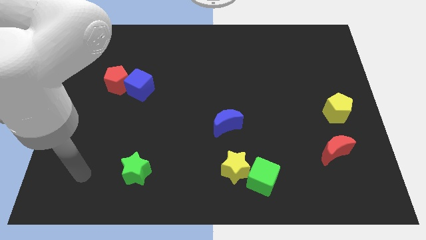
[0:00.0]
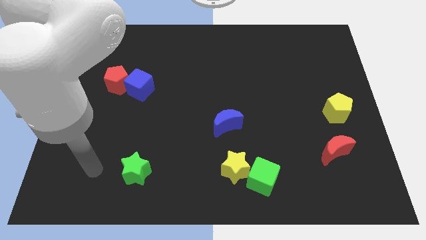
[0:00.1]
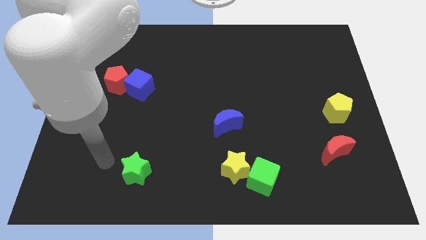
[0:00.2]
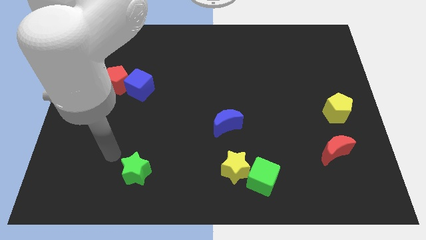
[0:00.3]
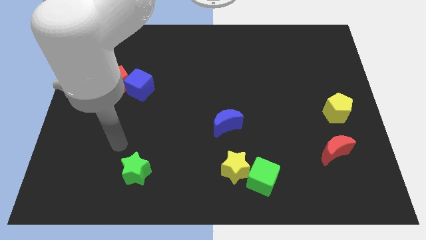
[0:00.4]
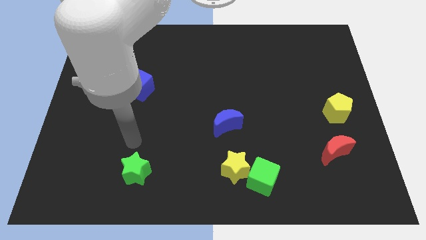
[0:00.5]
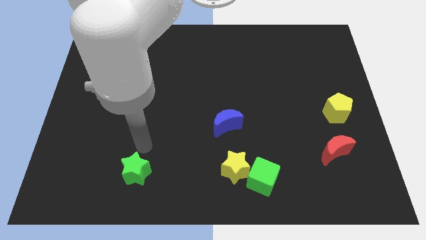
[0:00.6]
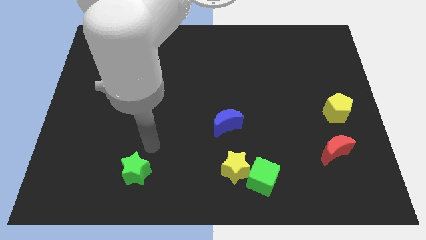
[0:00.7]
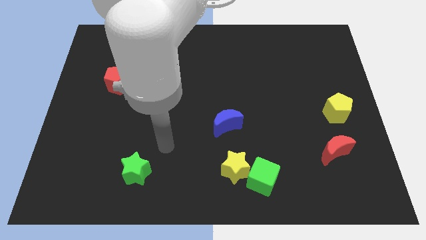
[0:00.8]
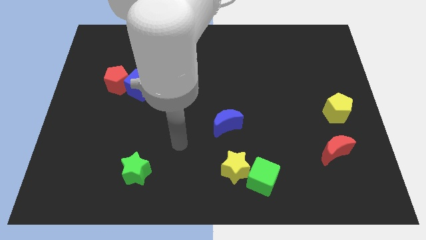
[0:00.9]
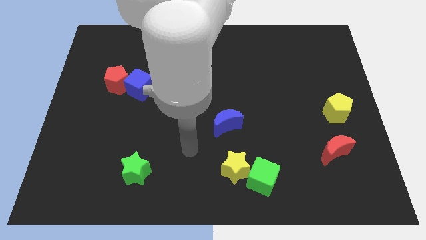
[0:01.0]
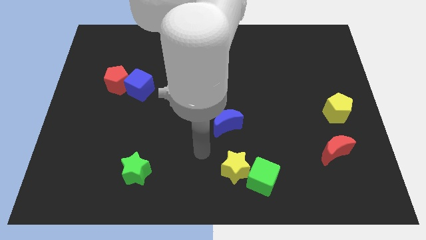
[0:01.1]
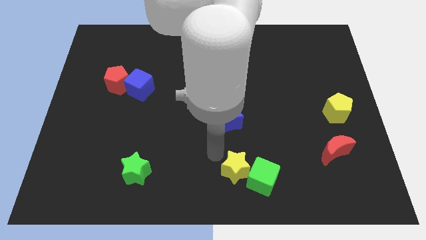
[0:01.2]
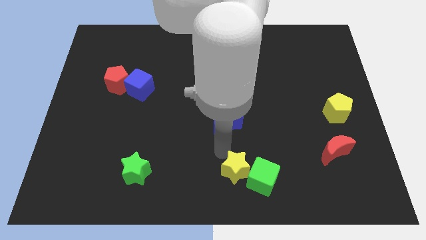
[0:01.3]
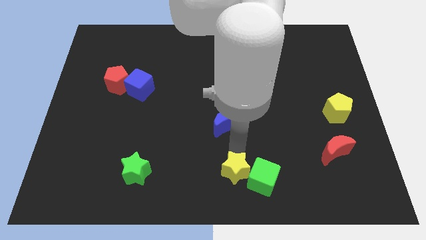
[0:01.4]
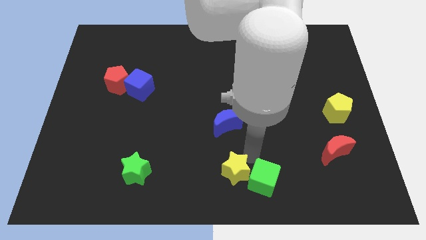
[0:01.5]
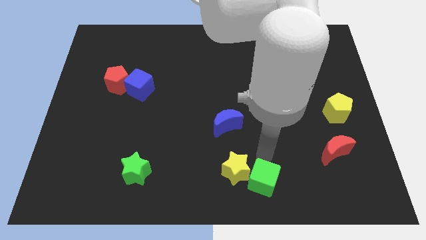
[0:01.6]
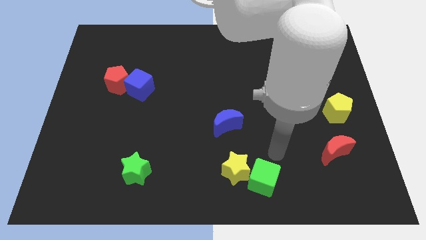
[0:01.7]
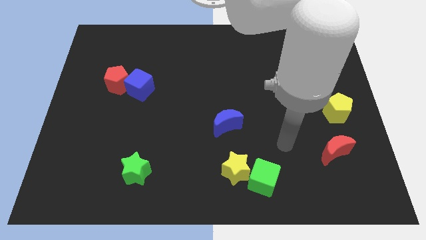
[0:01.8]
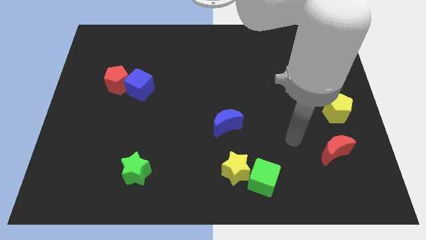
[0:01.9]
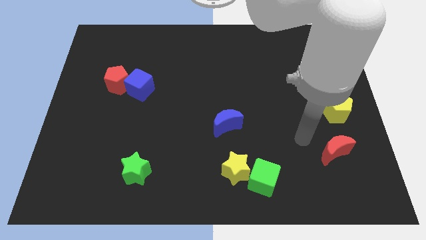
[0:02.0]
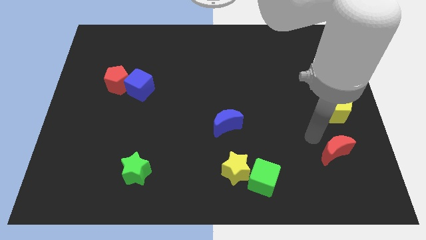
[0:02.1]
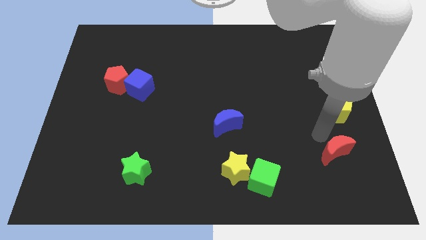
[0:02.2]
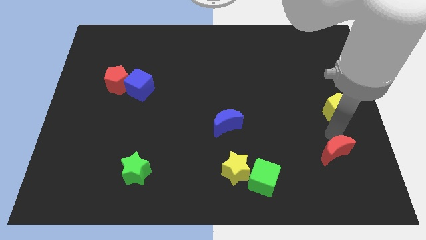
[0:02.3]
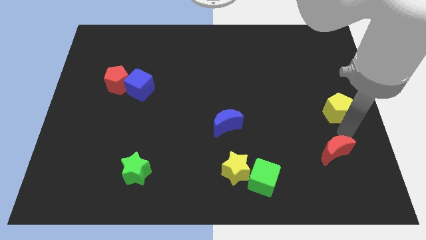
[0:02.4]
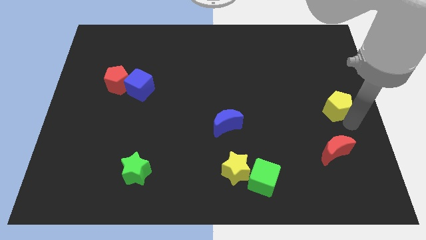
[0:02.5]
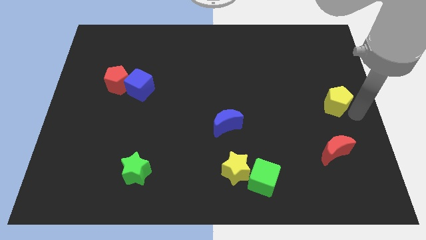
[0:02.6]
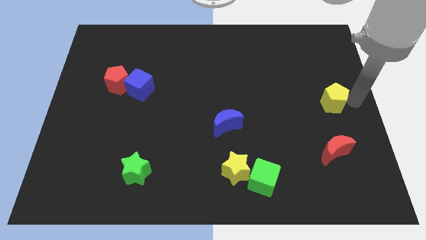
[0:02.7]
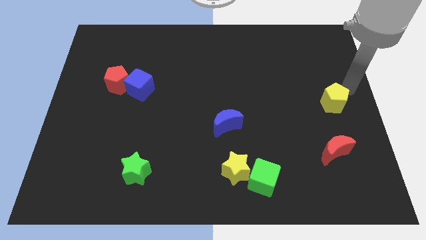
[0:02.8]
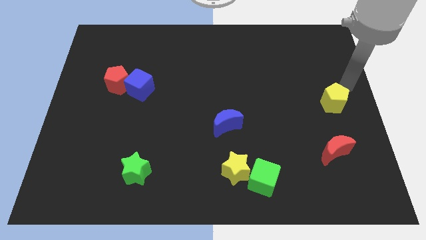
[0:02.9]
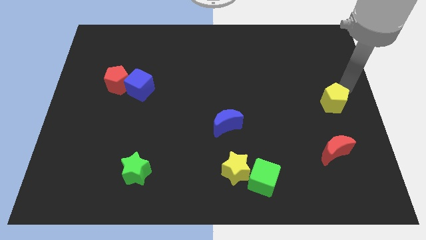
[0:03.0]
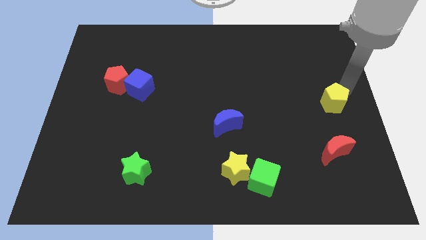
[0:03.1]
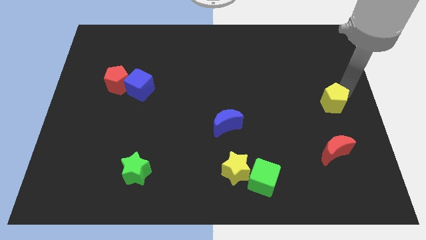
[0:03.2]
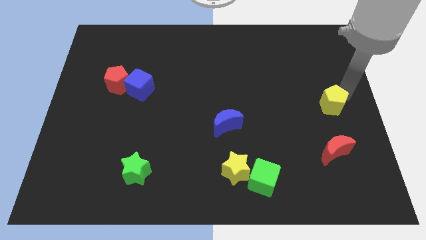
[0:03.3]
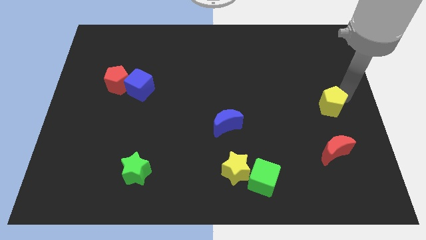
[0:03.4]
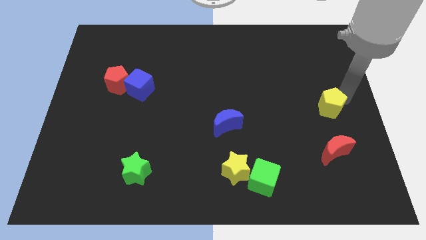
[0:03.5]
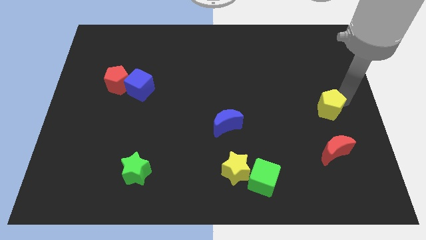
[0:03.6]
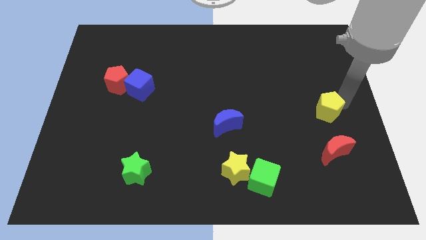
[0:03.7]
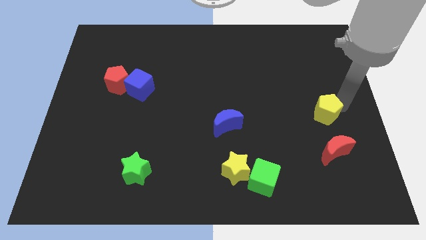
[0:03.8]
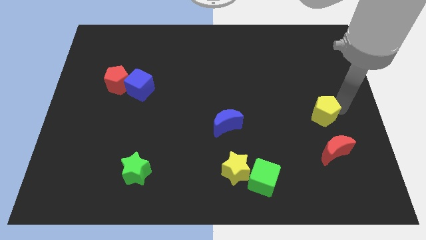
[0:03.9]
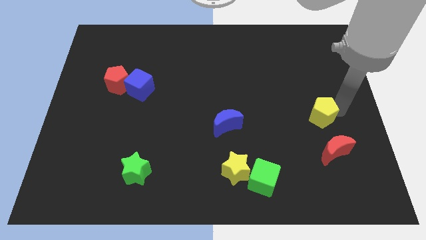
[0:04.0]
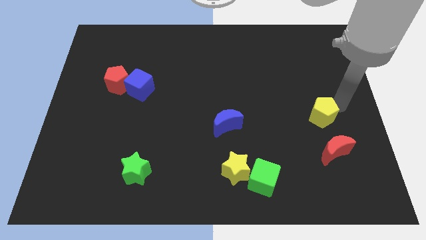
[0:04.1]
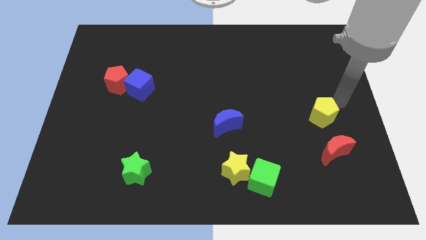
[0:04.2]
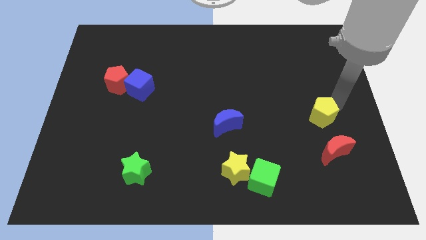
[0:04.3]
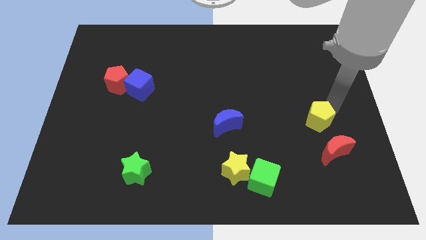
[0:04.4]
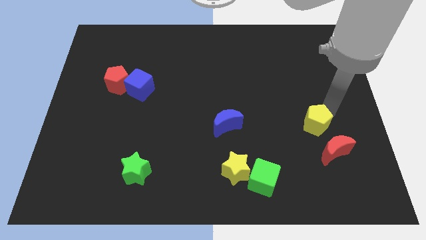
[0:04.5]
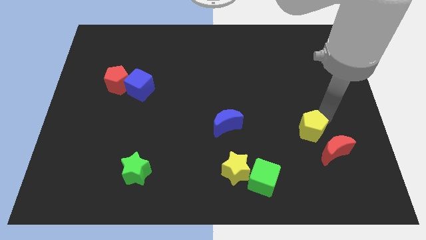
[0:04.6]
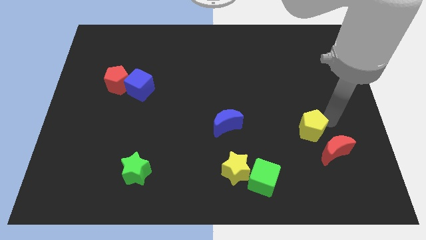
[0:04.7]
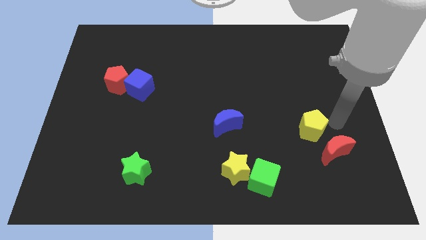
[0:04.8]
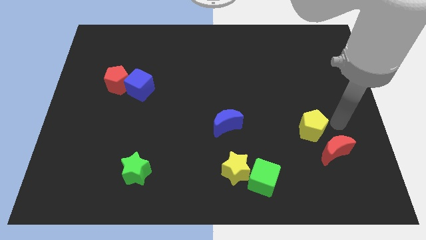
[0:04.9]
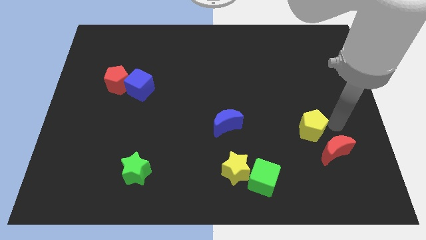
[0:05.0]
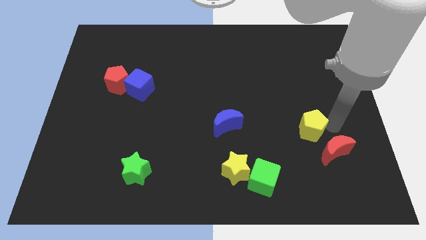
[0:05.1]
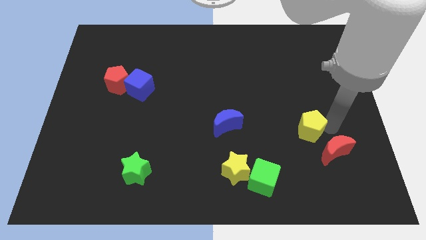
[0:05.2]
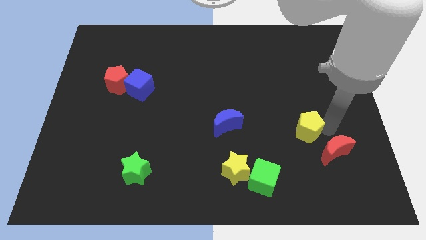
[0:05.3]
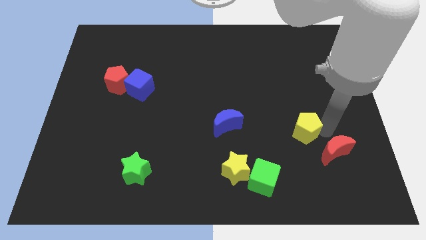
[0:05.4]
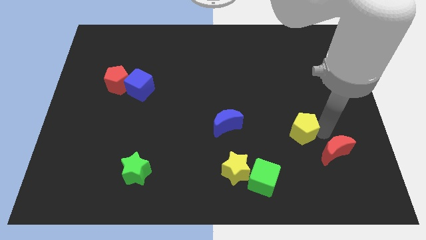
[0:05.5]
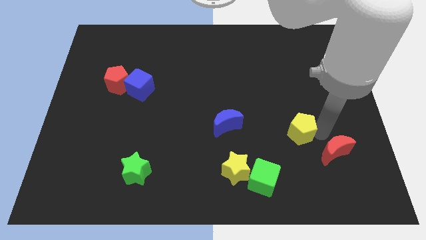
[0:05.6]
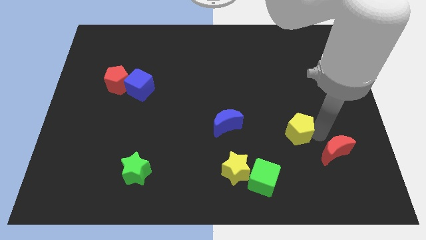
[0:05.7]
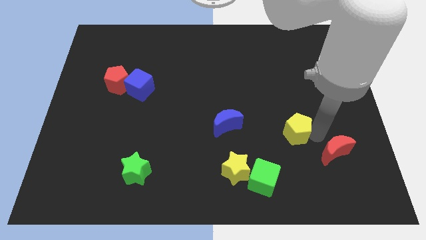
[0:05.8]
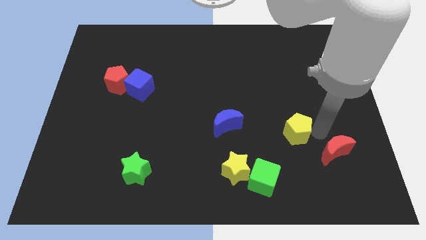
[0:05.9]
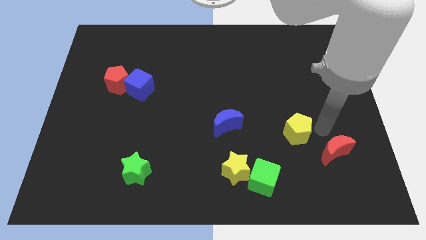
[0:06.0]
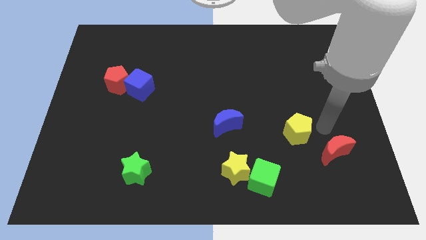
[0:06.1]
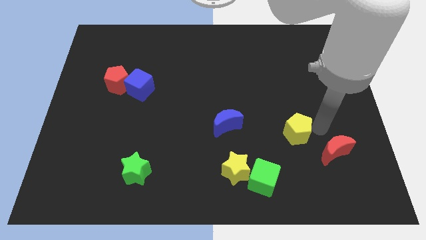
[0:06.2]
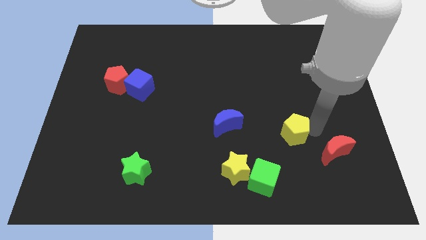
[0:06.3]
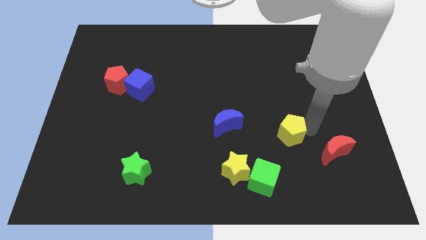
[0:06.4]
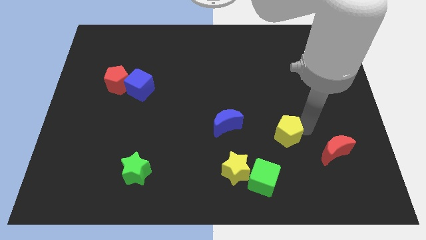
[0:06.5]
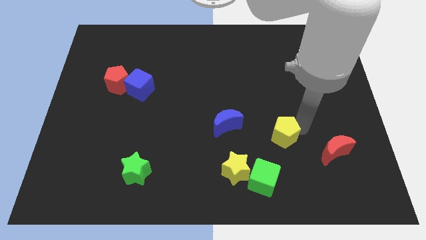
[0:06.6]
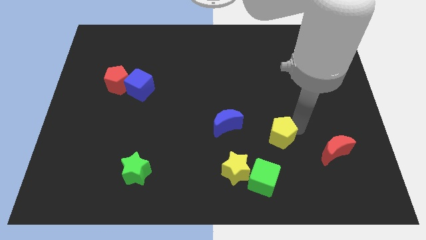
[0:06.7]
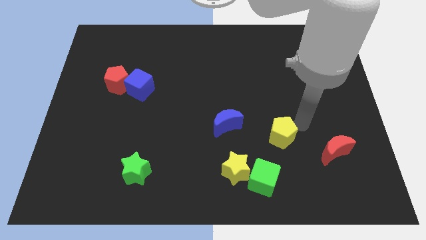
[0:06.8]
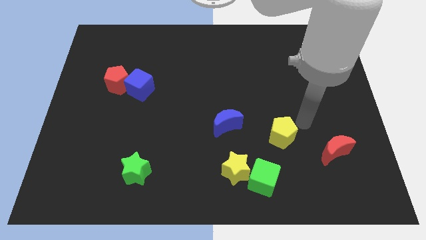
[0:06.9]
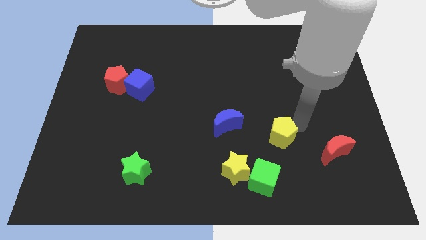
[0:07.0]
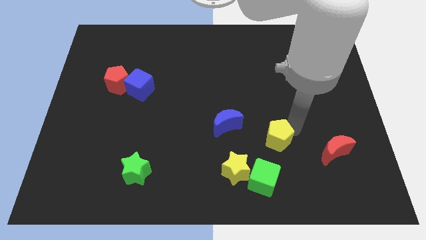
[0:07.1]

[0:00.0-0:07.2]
put the yellow pentagon to the top right side of the yellow star
